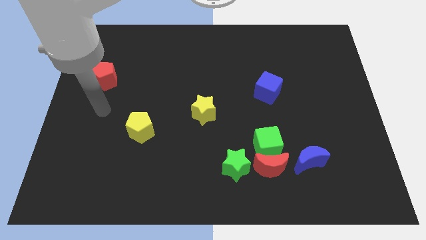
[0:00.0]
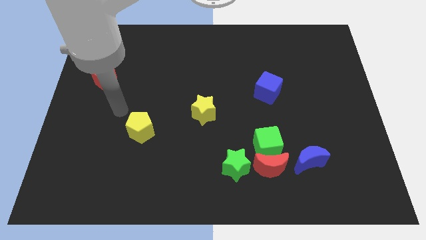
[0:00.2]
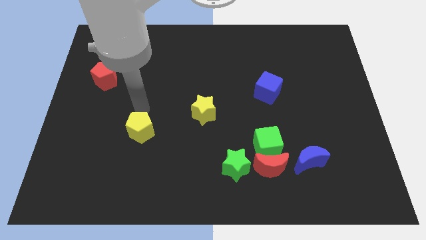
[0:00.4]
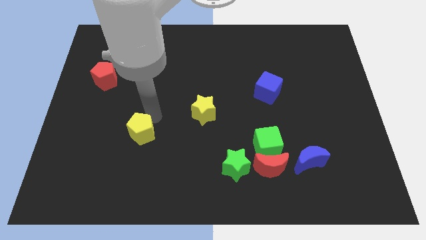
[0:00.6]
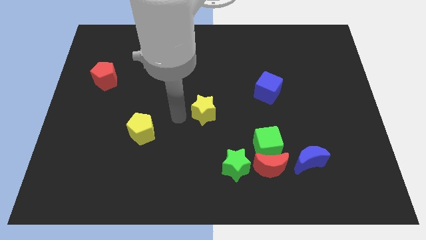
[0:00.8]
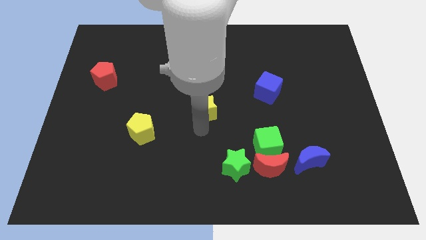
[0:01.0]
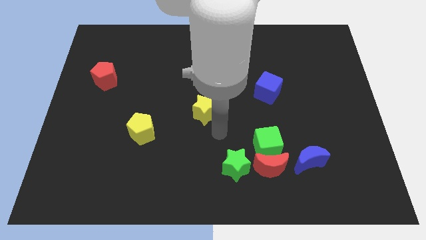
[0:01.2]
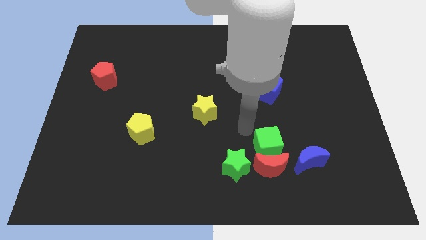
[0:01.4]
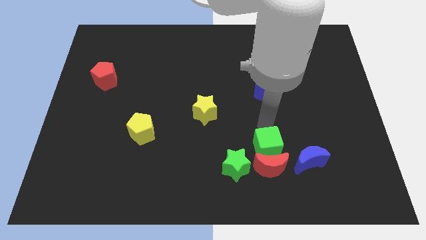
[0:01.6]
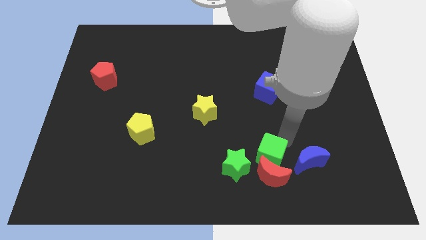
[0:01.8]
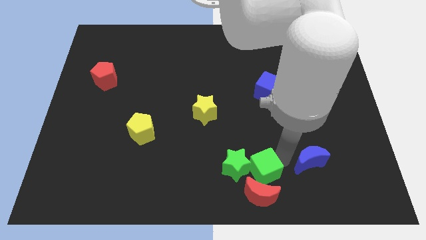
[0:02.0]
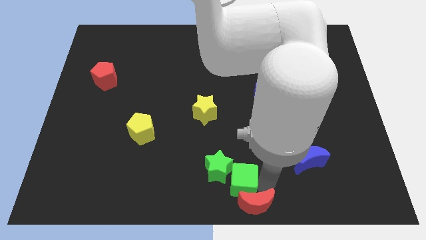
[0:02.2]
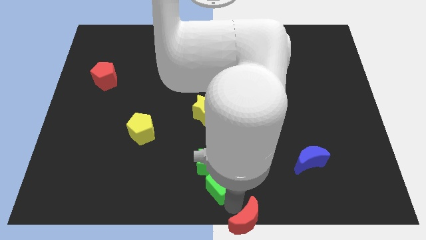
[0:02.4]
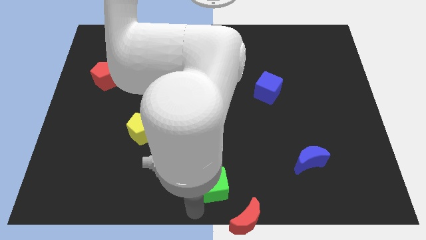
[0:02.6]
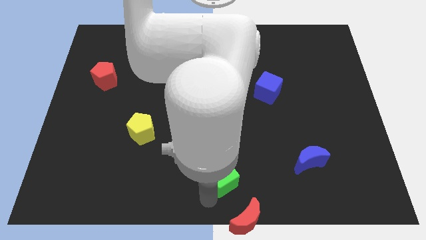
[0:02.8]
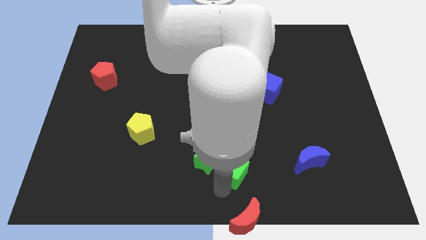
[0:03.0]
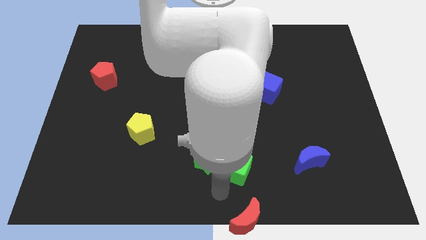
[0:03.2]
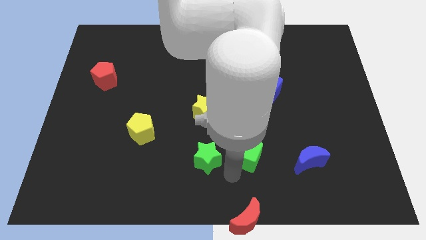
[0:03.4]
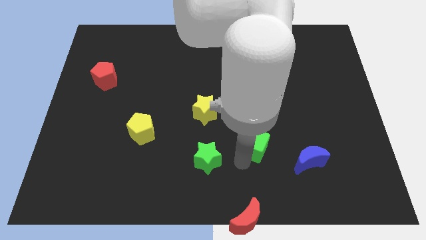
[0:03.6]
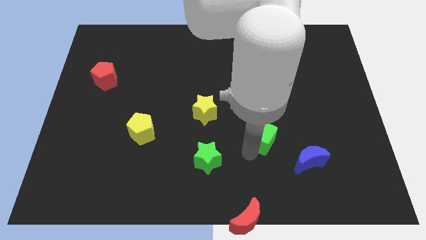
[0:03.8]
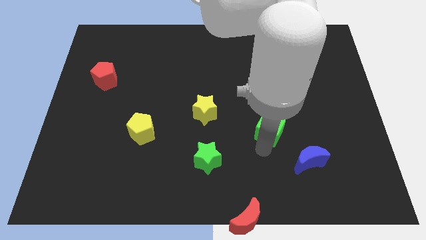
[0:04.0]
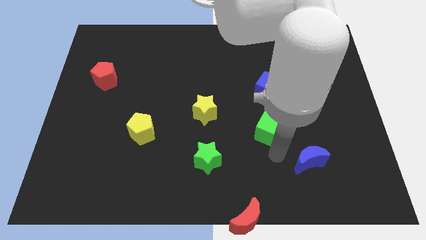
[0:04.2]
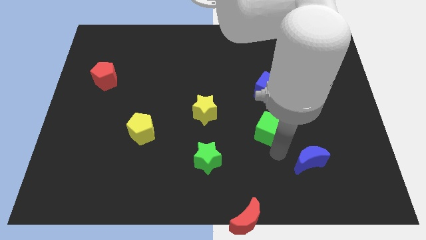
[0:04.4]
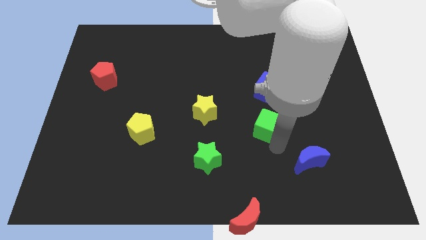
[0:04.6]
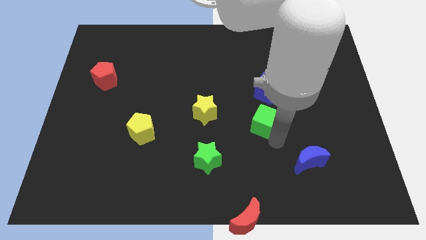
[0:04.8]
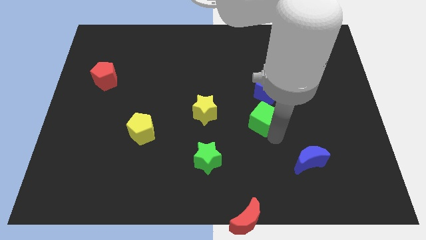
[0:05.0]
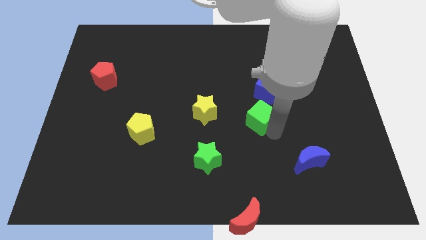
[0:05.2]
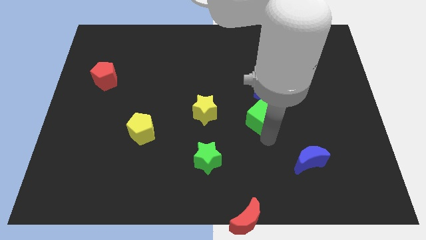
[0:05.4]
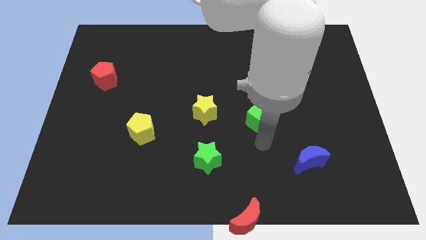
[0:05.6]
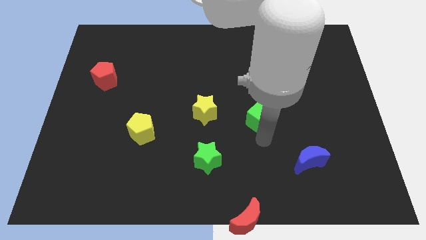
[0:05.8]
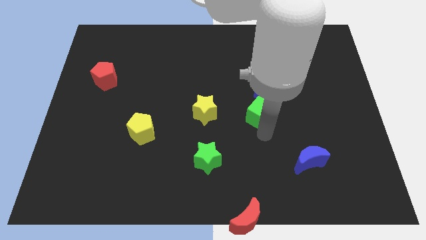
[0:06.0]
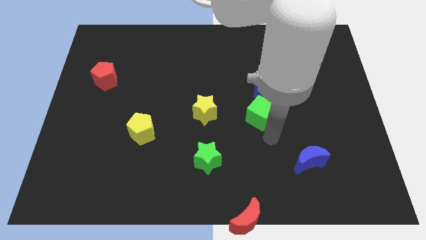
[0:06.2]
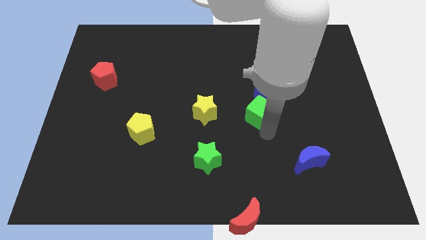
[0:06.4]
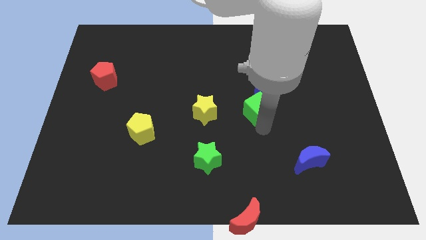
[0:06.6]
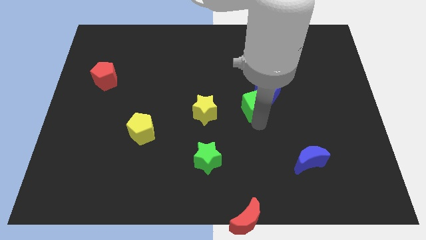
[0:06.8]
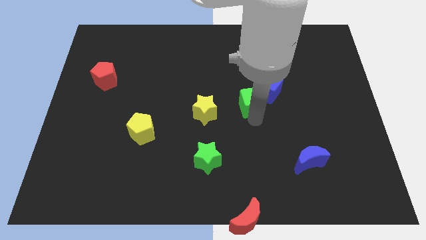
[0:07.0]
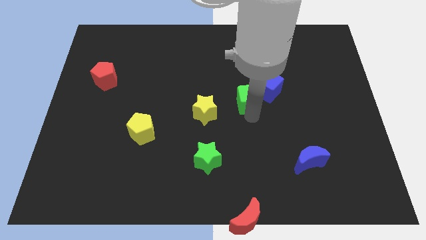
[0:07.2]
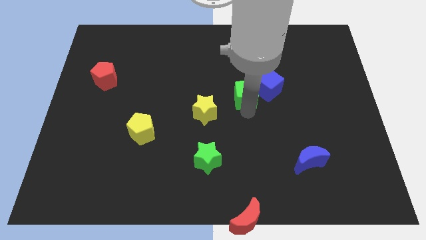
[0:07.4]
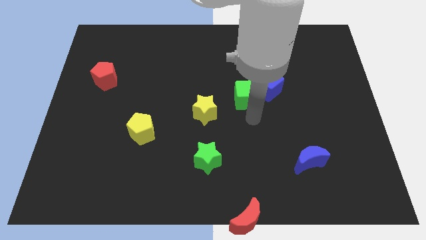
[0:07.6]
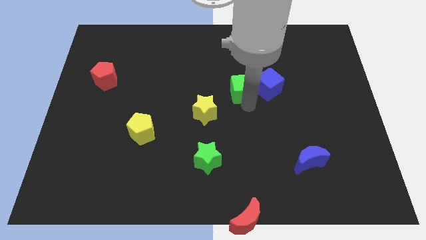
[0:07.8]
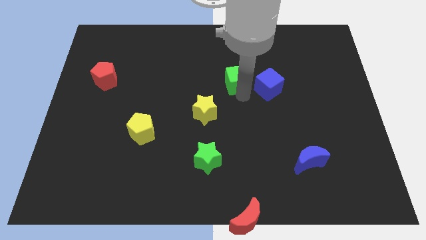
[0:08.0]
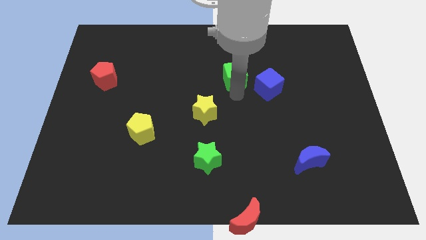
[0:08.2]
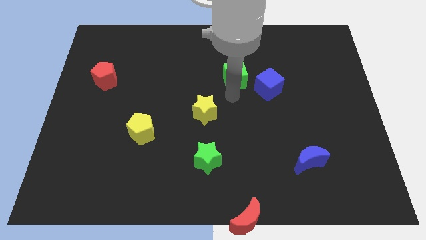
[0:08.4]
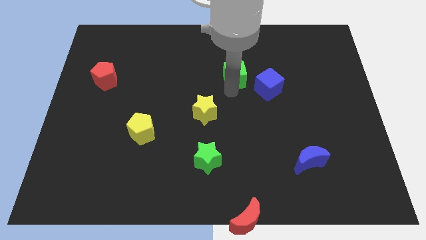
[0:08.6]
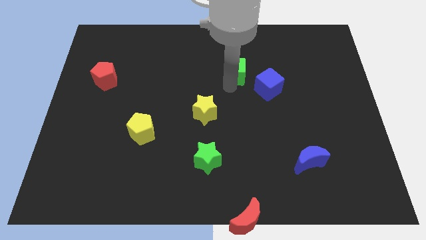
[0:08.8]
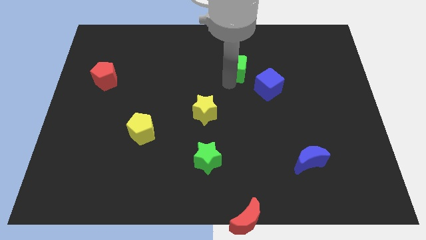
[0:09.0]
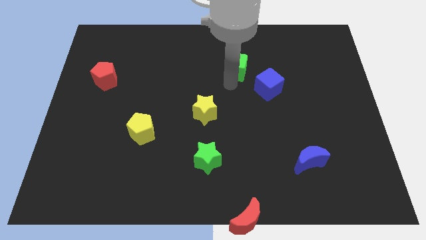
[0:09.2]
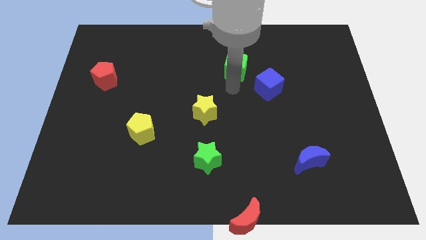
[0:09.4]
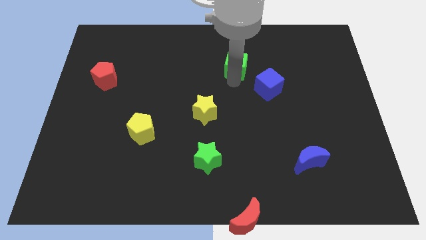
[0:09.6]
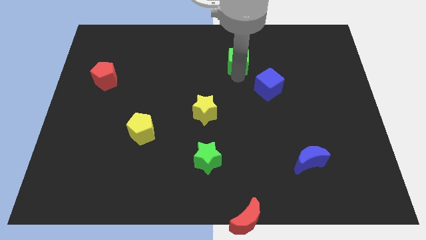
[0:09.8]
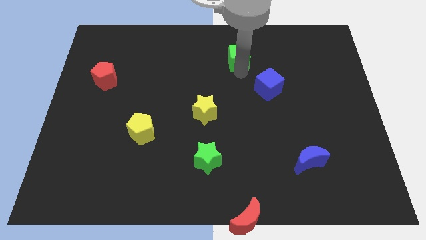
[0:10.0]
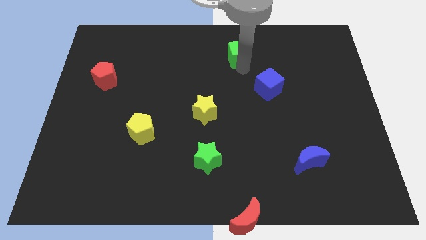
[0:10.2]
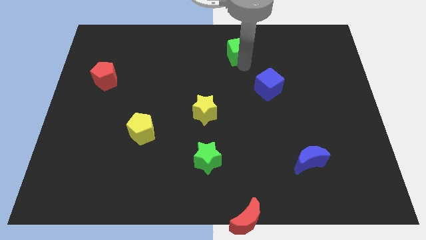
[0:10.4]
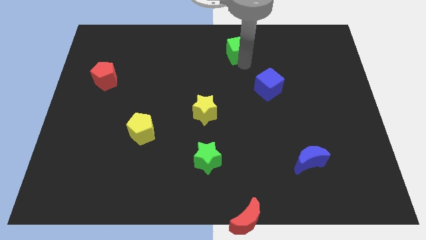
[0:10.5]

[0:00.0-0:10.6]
put the green cube to the top side
